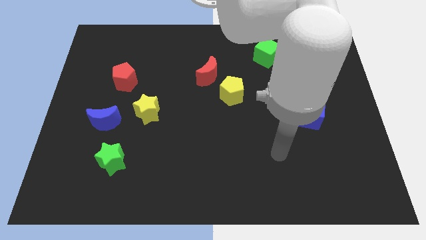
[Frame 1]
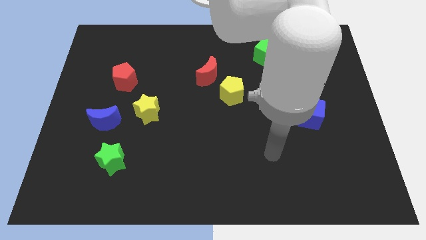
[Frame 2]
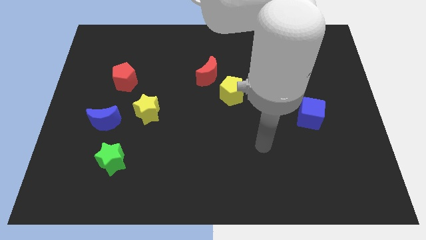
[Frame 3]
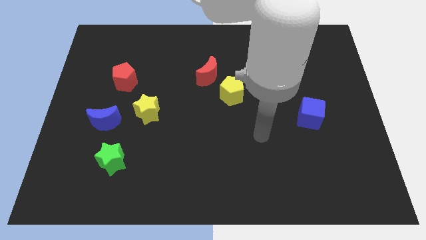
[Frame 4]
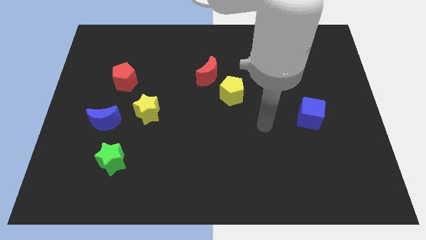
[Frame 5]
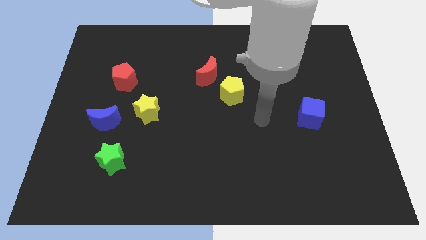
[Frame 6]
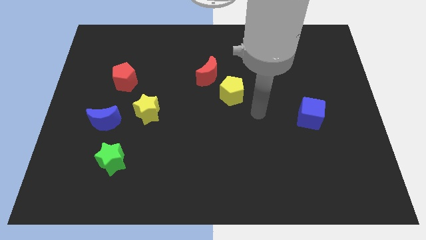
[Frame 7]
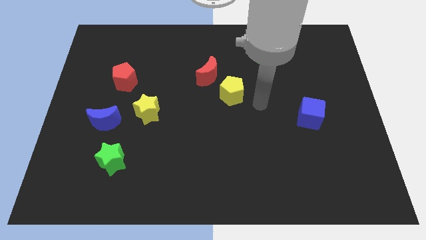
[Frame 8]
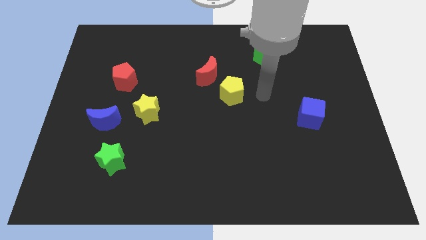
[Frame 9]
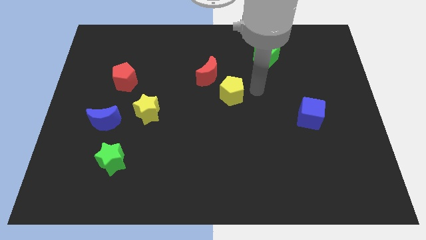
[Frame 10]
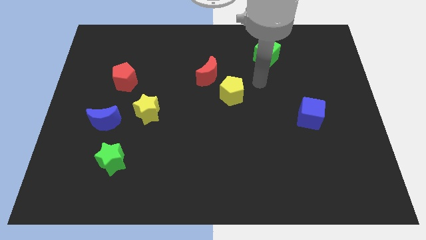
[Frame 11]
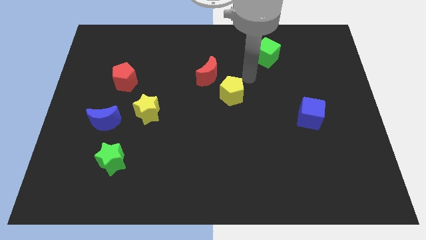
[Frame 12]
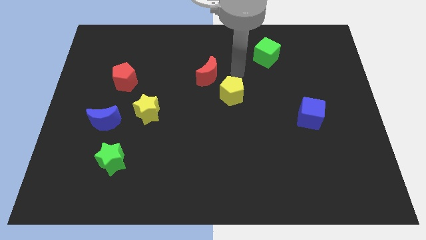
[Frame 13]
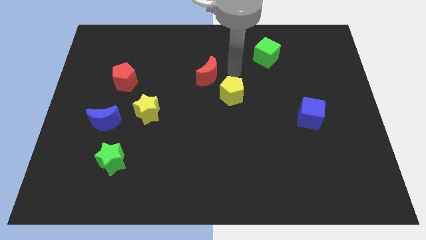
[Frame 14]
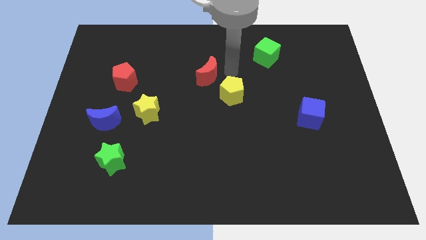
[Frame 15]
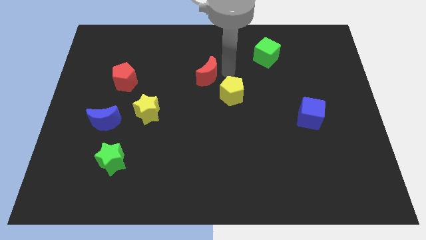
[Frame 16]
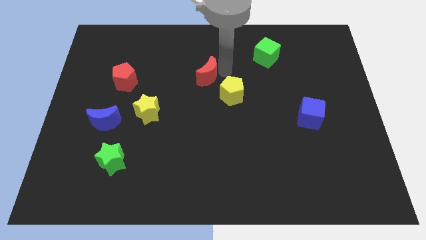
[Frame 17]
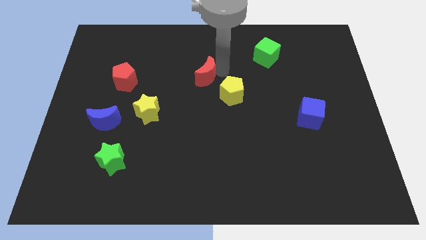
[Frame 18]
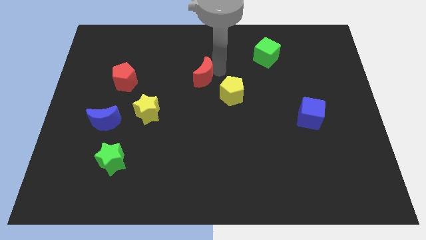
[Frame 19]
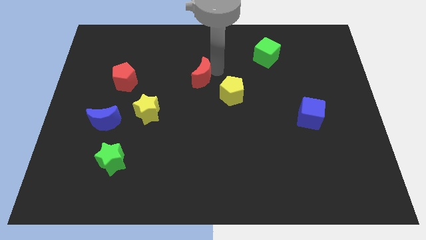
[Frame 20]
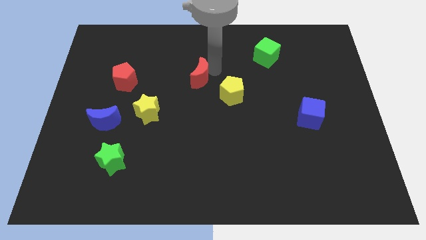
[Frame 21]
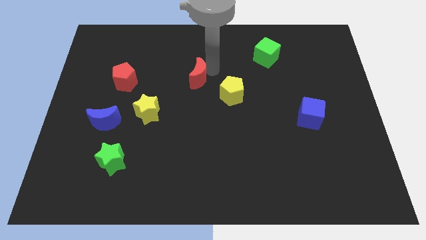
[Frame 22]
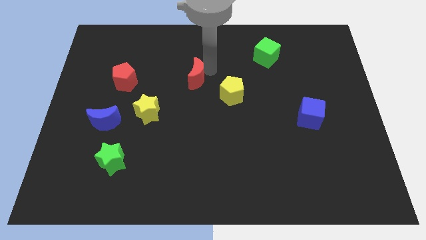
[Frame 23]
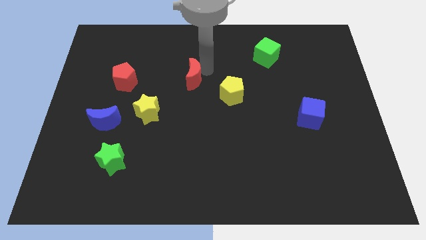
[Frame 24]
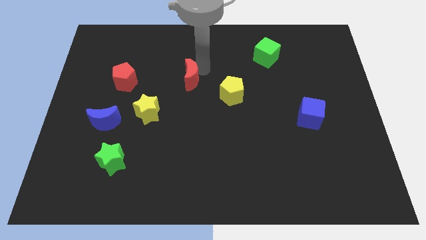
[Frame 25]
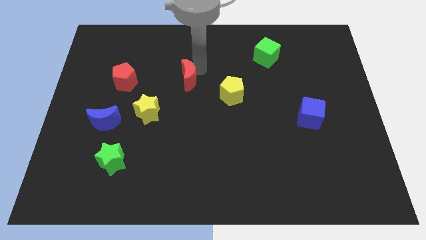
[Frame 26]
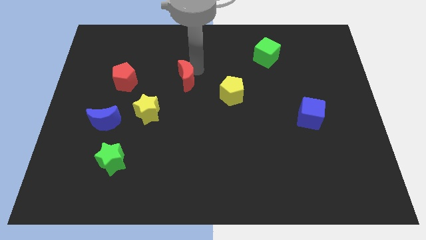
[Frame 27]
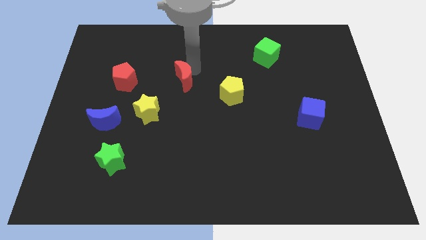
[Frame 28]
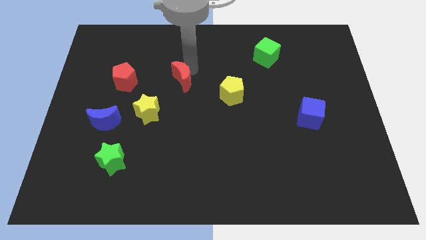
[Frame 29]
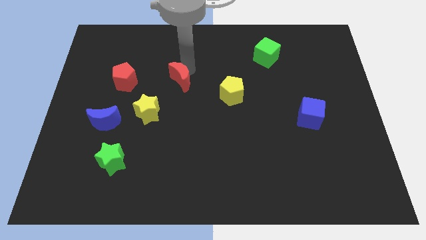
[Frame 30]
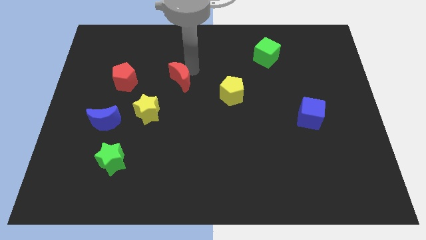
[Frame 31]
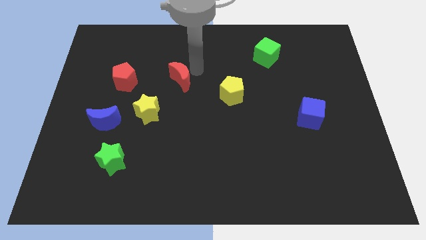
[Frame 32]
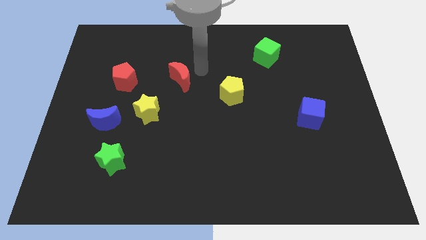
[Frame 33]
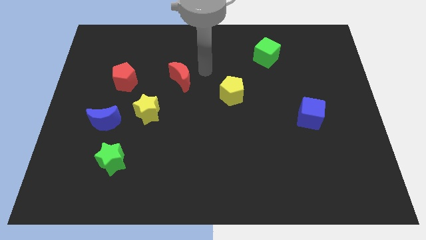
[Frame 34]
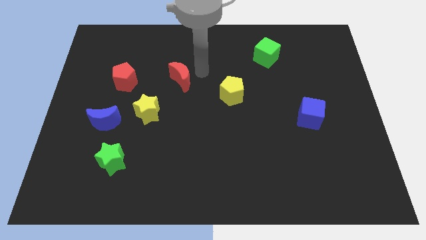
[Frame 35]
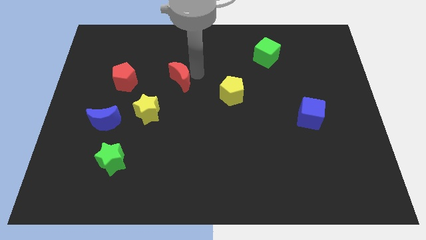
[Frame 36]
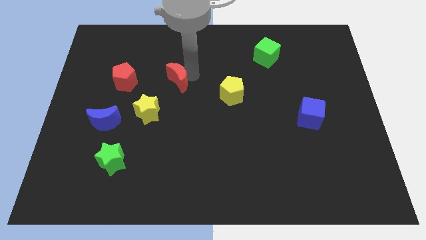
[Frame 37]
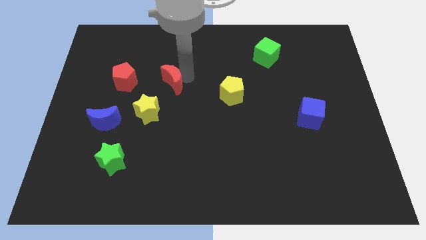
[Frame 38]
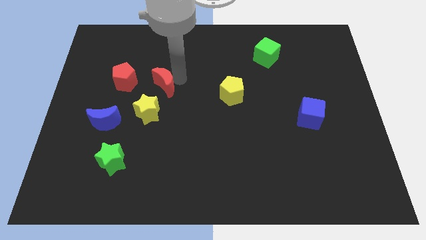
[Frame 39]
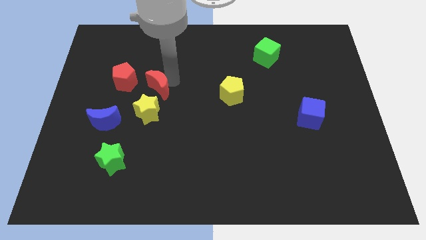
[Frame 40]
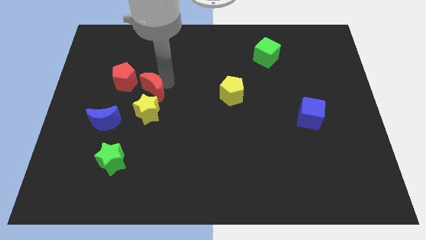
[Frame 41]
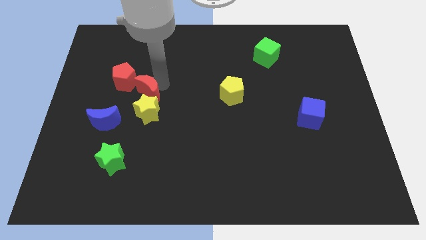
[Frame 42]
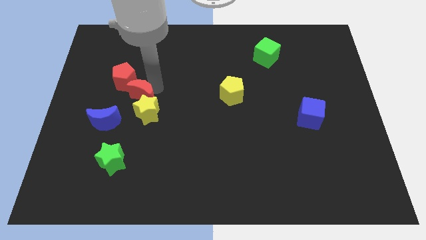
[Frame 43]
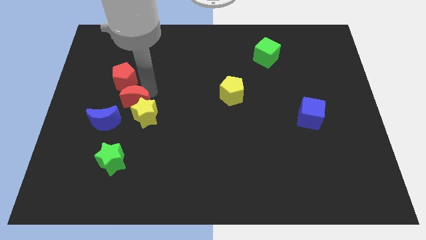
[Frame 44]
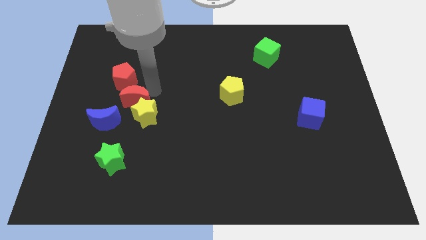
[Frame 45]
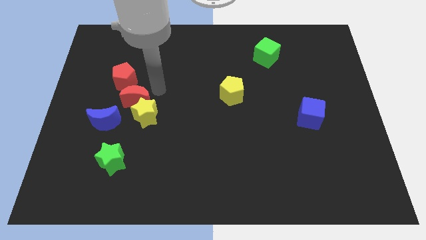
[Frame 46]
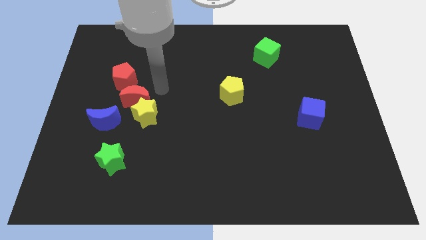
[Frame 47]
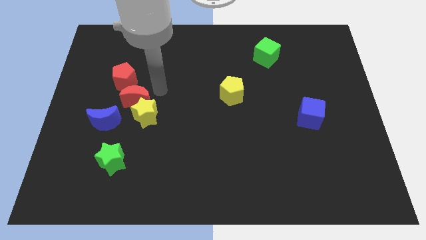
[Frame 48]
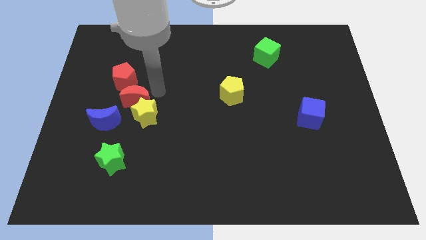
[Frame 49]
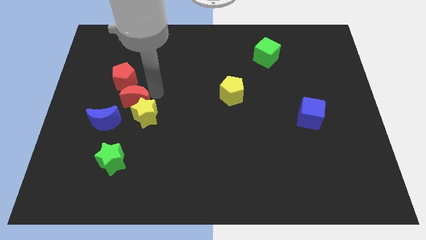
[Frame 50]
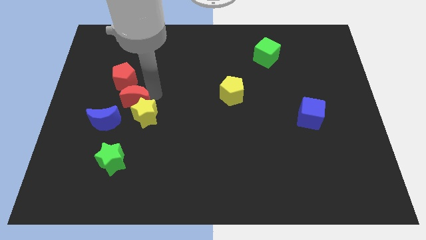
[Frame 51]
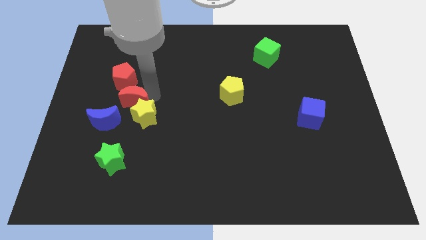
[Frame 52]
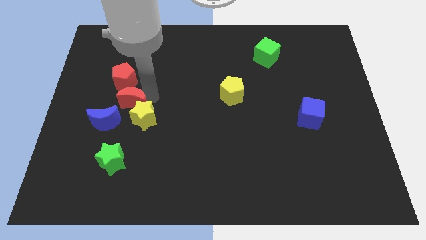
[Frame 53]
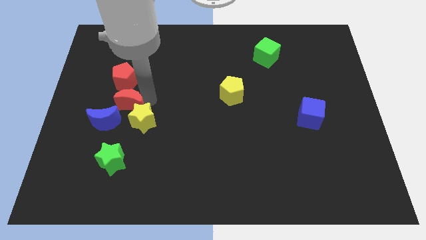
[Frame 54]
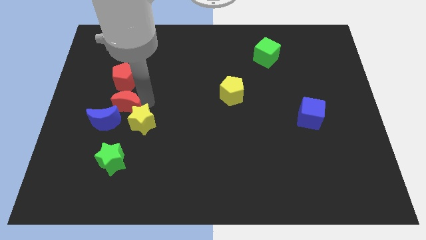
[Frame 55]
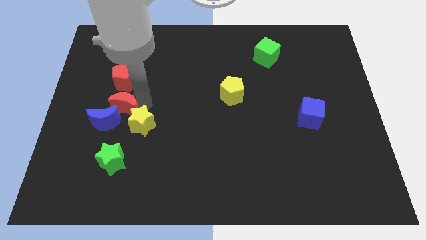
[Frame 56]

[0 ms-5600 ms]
put the red moon next to the blue moon

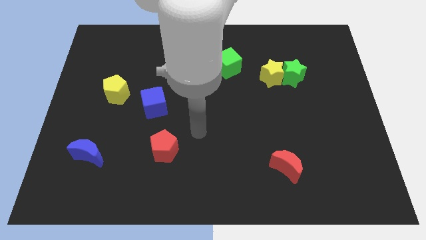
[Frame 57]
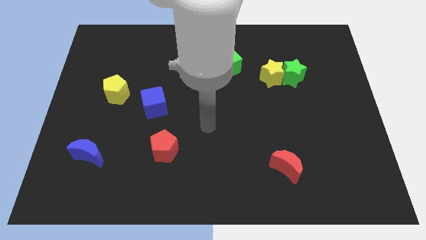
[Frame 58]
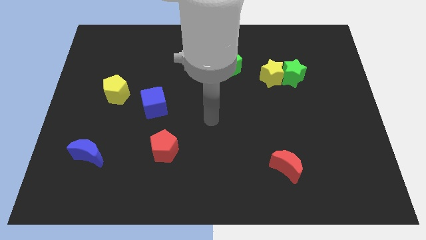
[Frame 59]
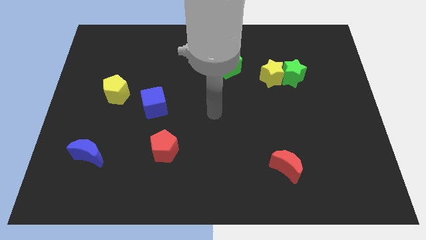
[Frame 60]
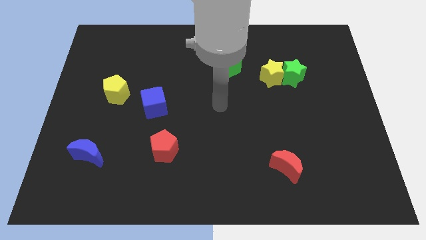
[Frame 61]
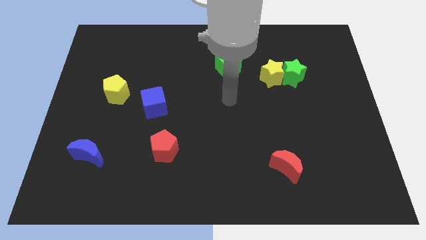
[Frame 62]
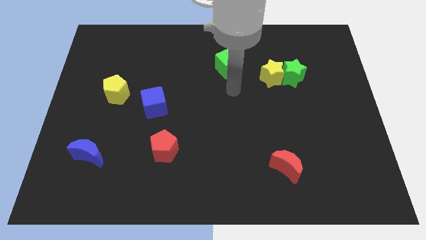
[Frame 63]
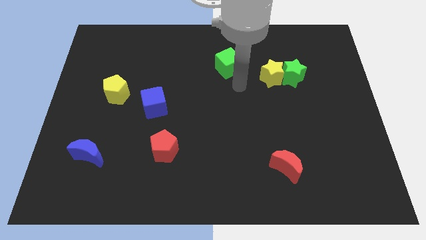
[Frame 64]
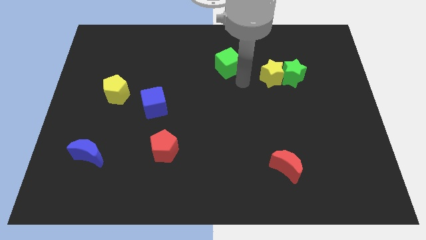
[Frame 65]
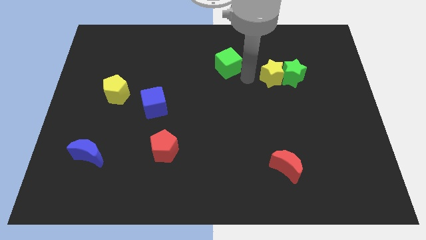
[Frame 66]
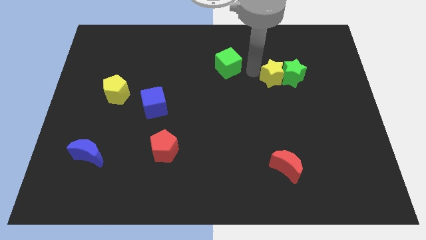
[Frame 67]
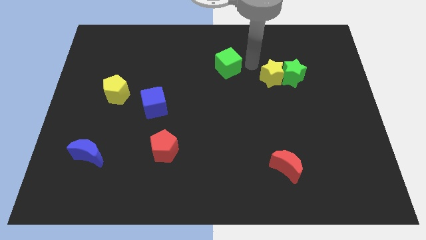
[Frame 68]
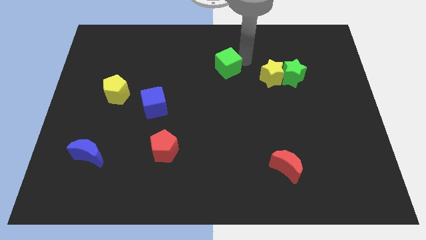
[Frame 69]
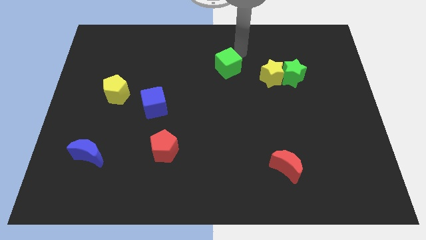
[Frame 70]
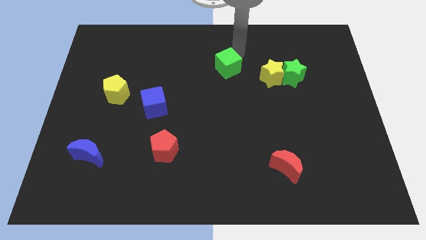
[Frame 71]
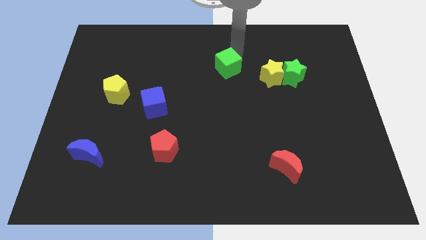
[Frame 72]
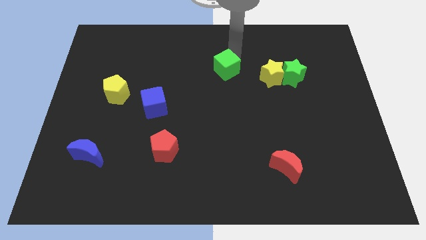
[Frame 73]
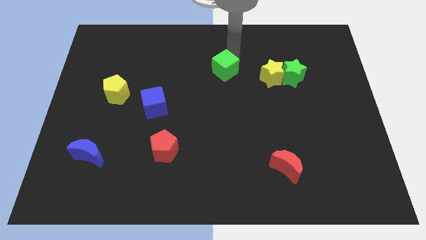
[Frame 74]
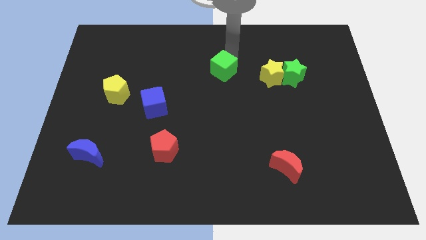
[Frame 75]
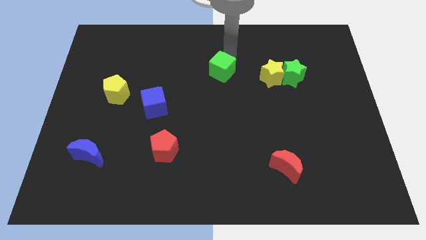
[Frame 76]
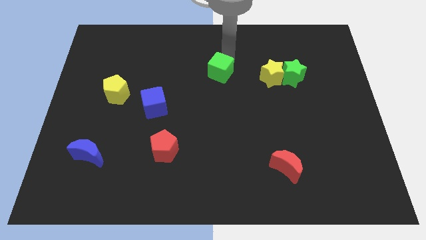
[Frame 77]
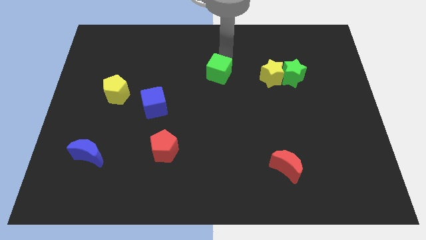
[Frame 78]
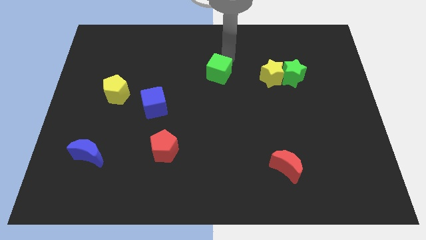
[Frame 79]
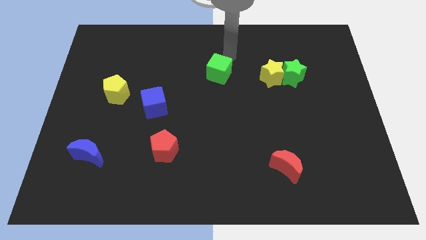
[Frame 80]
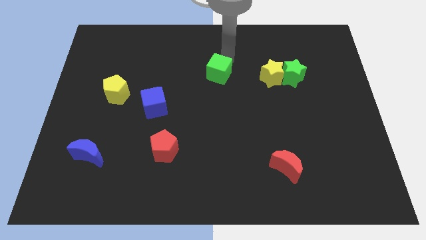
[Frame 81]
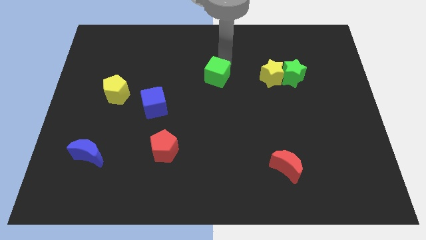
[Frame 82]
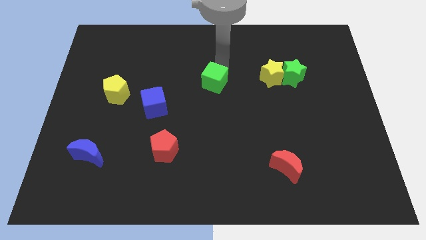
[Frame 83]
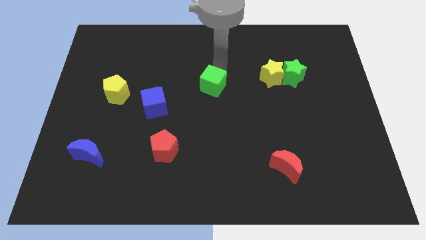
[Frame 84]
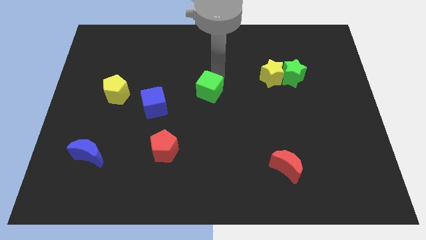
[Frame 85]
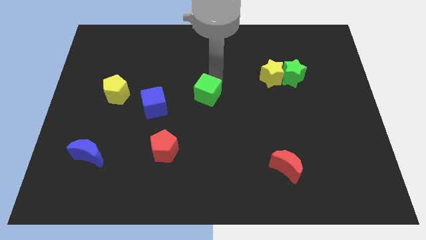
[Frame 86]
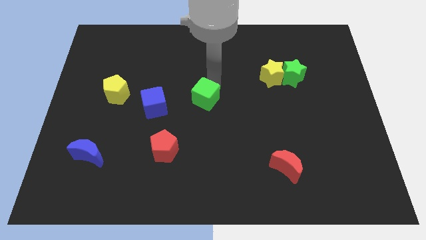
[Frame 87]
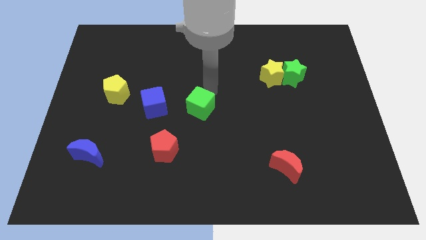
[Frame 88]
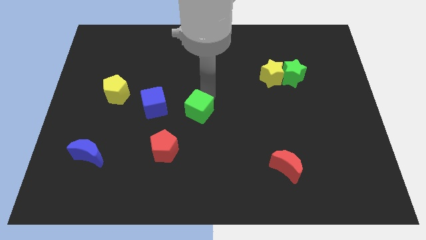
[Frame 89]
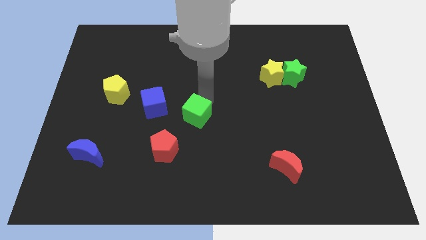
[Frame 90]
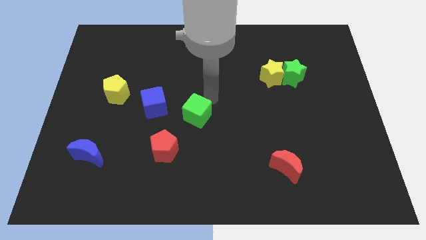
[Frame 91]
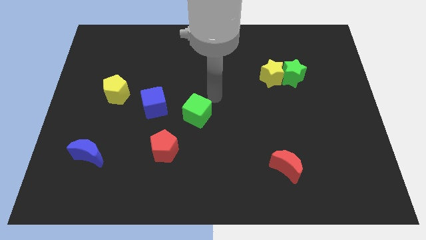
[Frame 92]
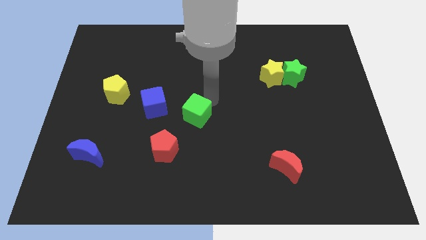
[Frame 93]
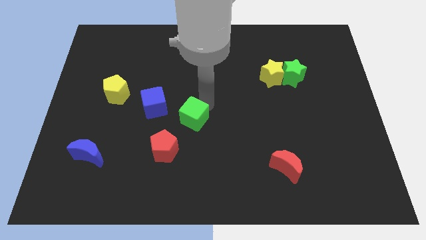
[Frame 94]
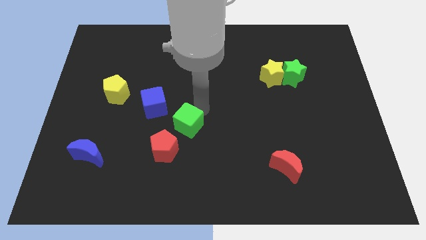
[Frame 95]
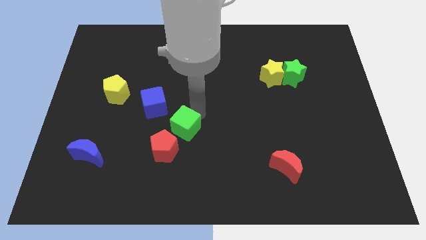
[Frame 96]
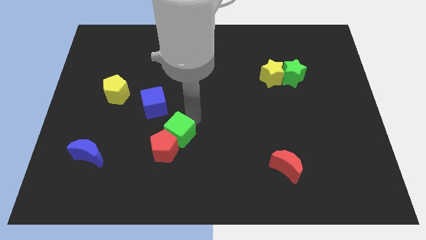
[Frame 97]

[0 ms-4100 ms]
move the green cube next to the red pentagon
